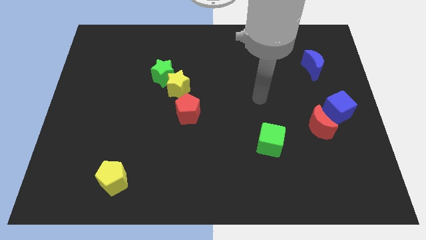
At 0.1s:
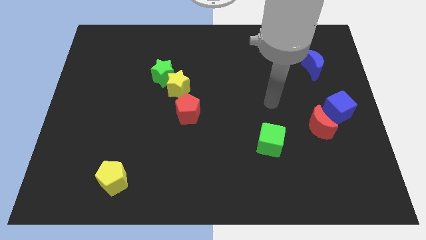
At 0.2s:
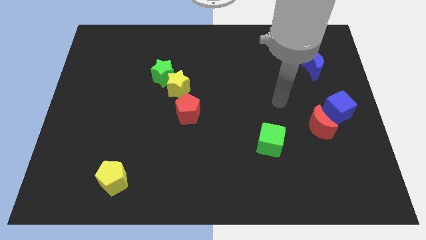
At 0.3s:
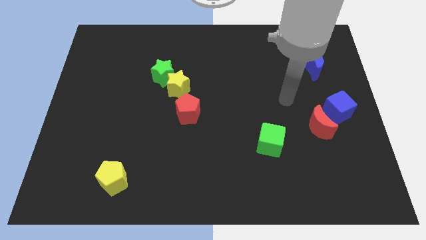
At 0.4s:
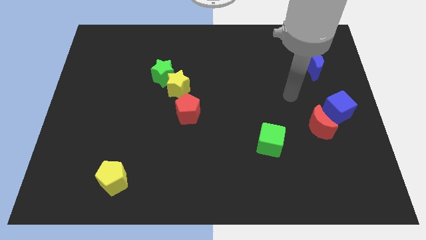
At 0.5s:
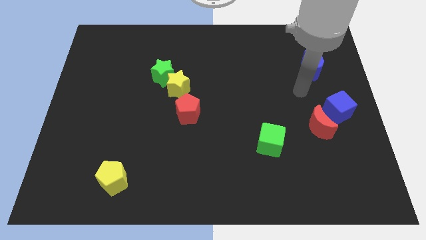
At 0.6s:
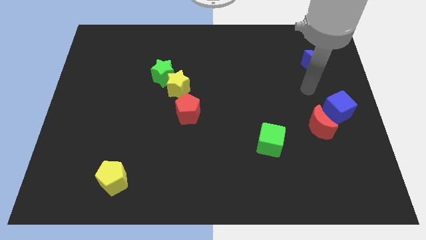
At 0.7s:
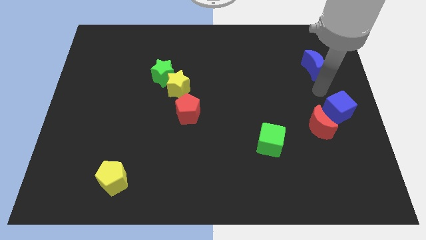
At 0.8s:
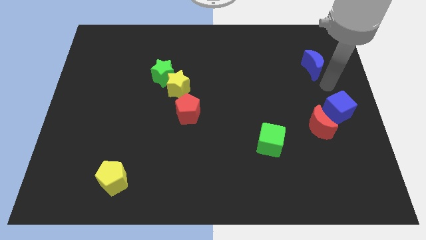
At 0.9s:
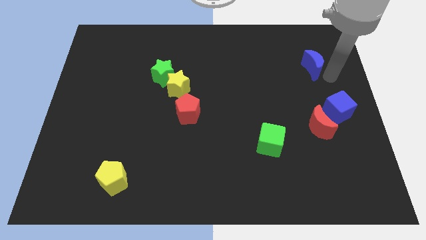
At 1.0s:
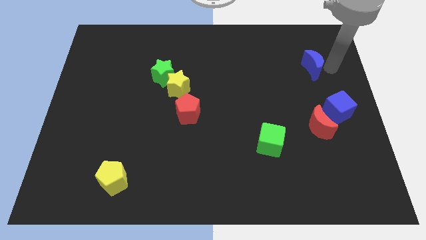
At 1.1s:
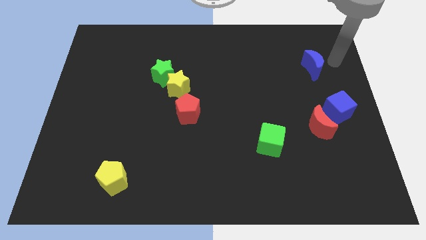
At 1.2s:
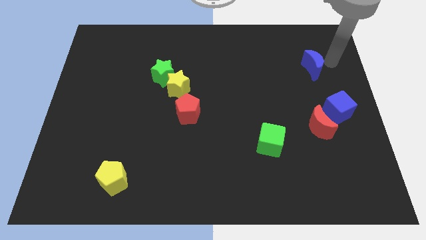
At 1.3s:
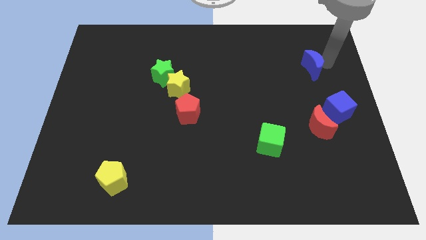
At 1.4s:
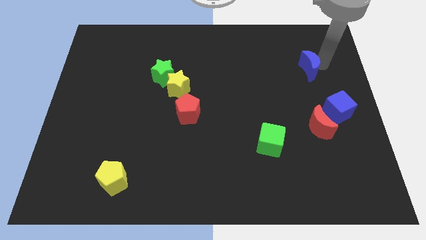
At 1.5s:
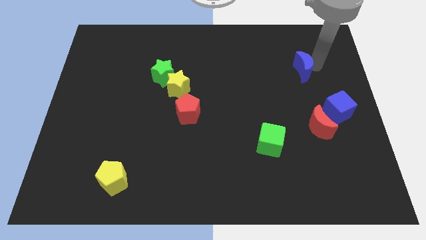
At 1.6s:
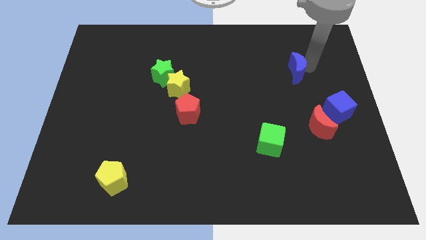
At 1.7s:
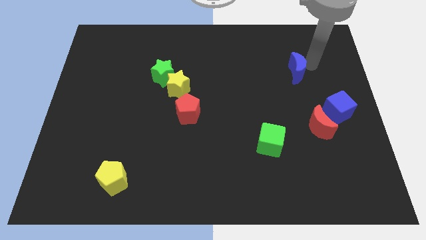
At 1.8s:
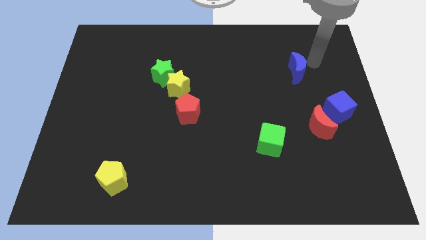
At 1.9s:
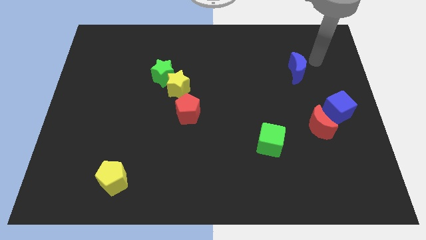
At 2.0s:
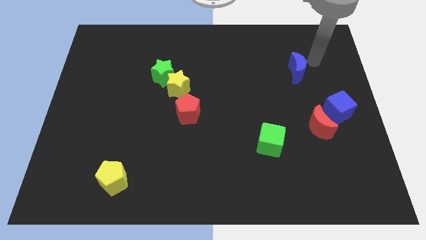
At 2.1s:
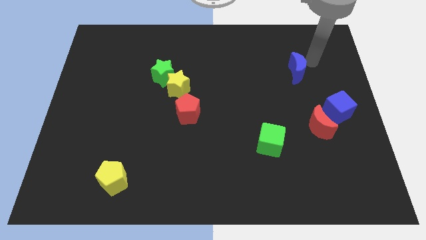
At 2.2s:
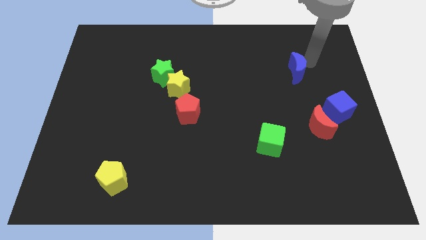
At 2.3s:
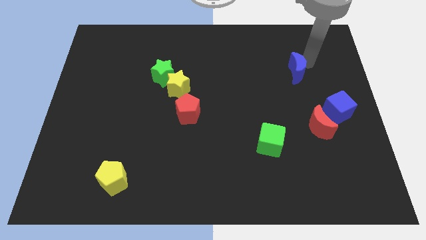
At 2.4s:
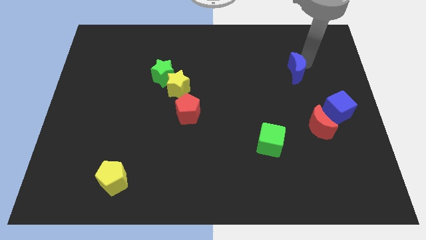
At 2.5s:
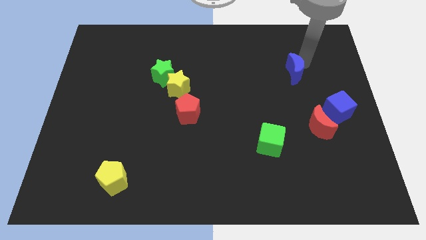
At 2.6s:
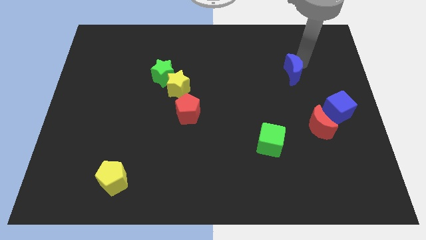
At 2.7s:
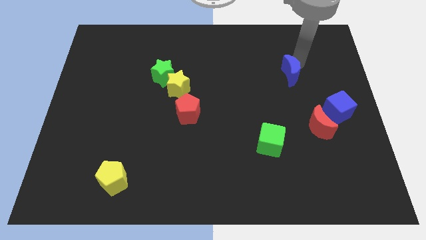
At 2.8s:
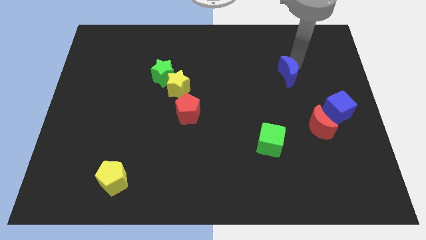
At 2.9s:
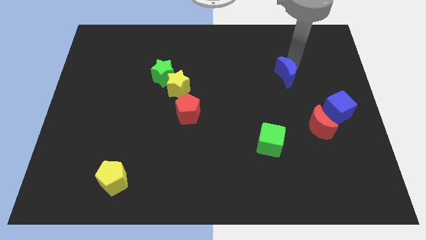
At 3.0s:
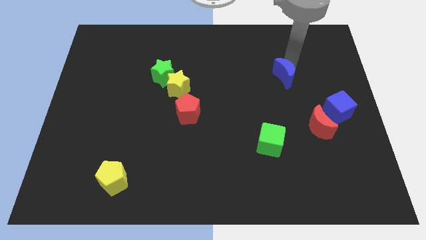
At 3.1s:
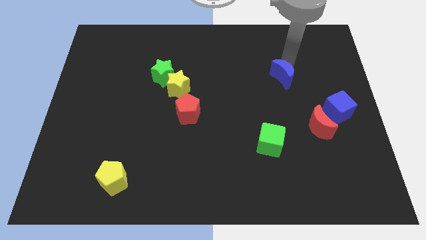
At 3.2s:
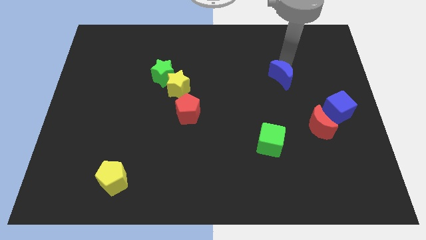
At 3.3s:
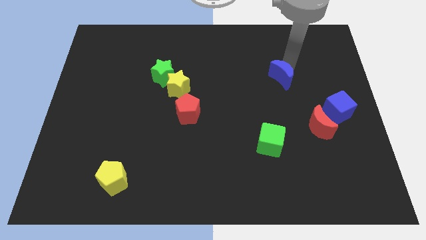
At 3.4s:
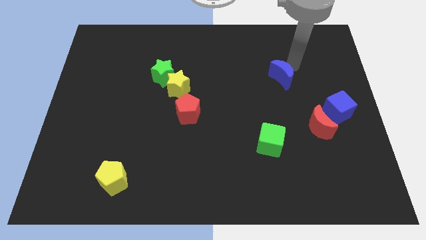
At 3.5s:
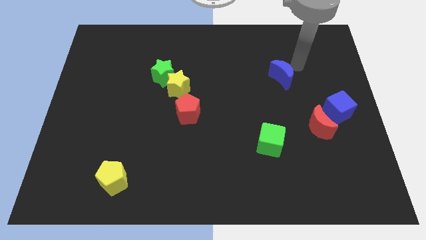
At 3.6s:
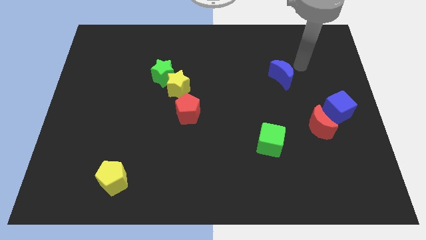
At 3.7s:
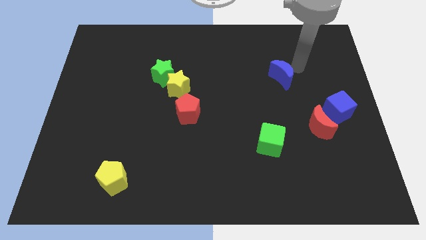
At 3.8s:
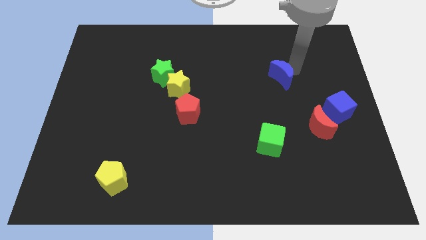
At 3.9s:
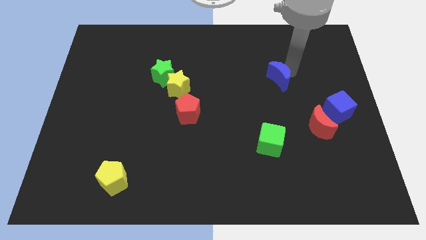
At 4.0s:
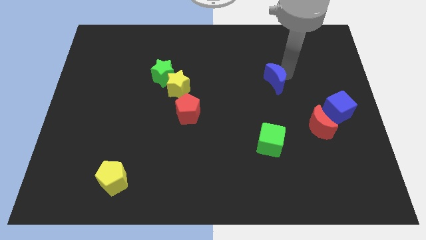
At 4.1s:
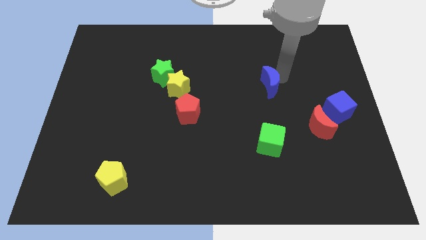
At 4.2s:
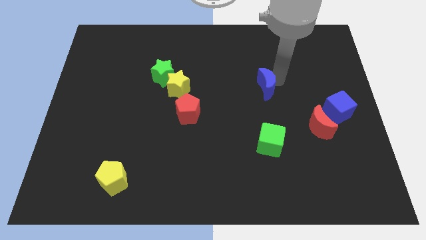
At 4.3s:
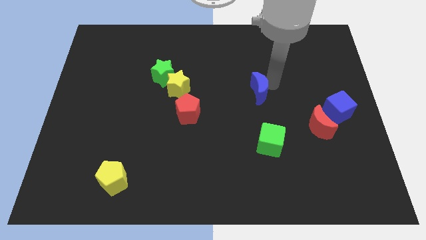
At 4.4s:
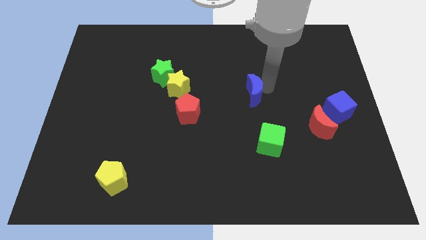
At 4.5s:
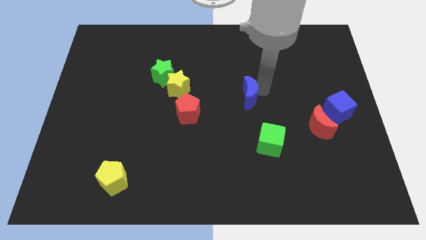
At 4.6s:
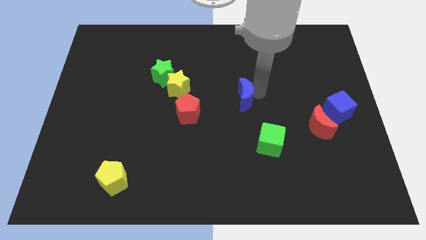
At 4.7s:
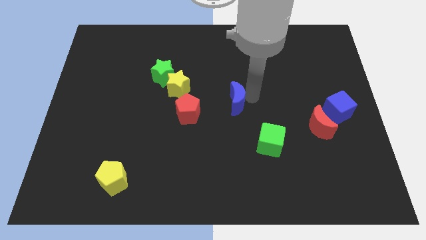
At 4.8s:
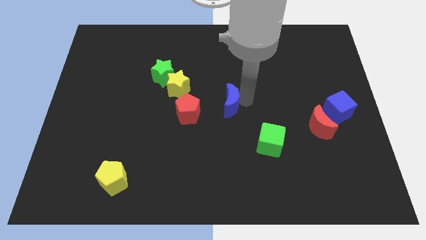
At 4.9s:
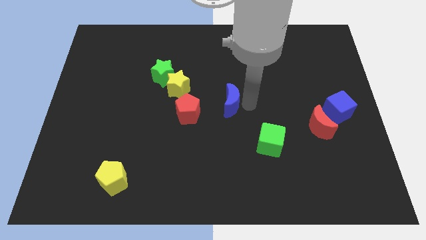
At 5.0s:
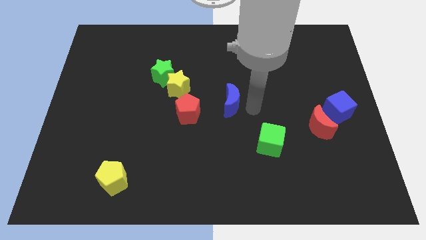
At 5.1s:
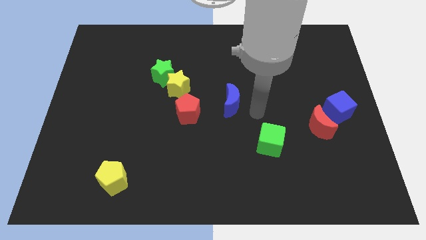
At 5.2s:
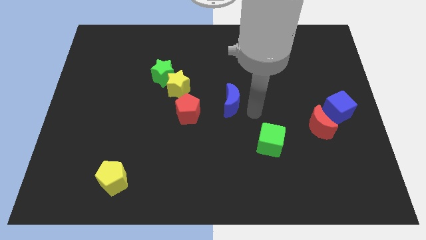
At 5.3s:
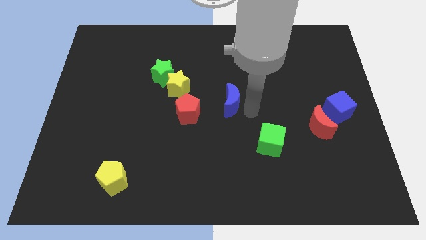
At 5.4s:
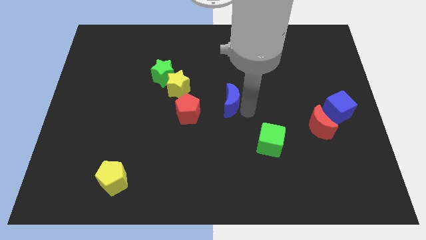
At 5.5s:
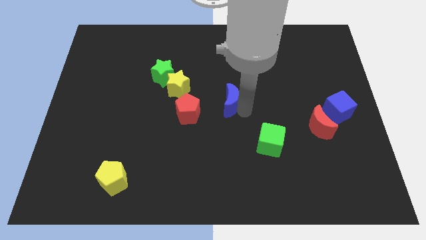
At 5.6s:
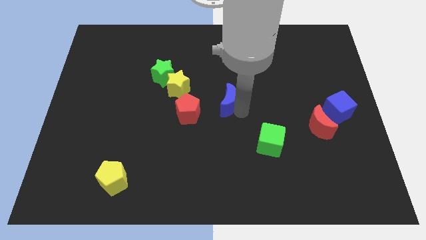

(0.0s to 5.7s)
push the blue moon to the top right of the red pentagon

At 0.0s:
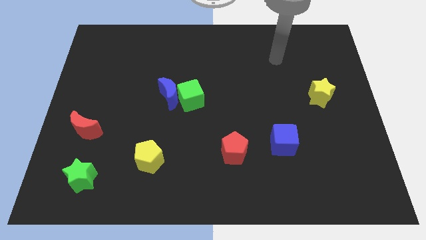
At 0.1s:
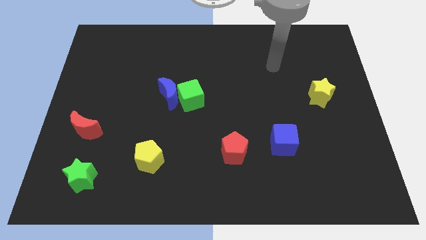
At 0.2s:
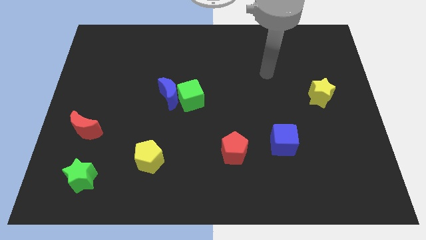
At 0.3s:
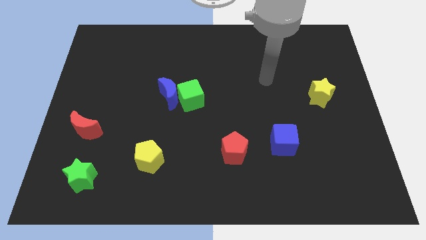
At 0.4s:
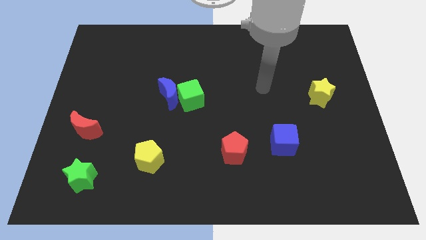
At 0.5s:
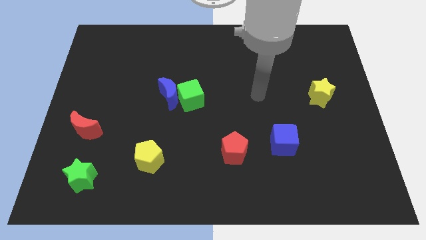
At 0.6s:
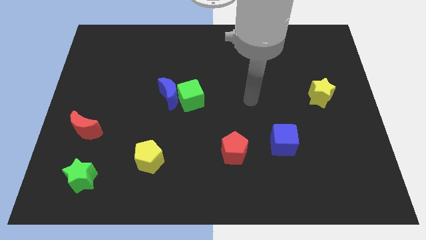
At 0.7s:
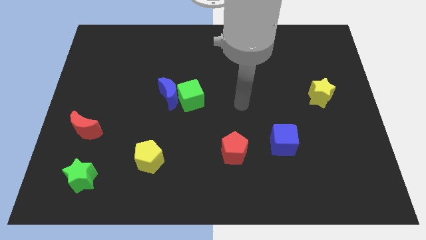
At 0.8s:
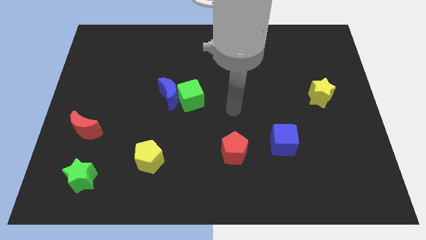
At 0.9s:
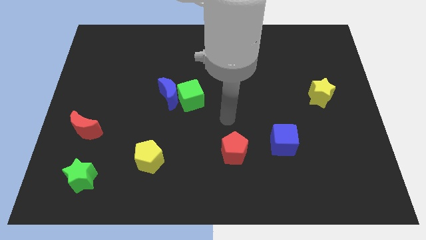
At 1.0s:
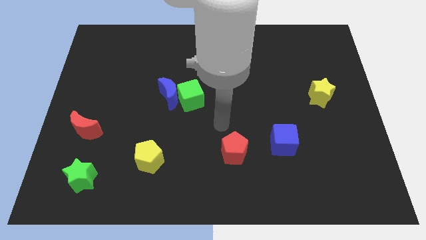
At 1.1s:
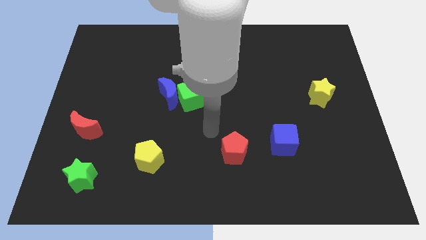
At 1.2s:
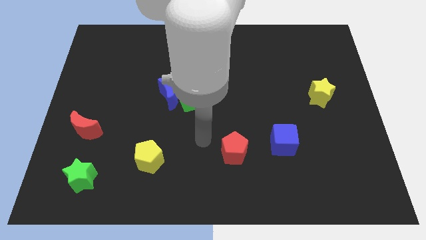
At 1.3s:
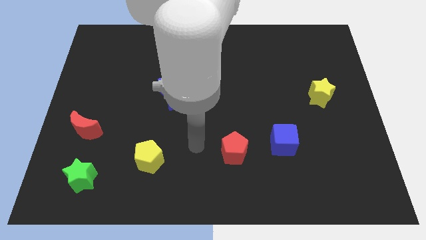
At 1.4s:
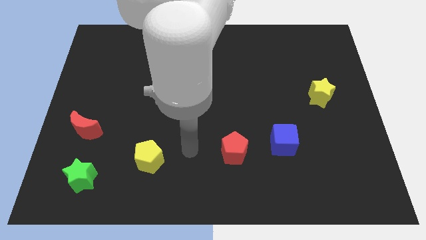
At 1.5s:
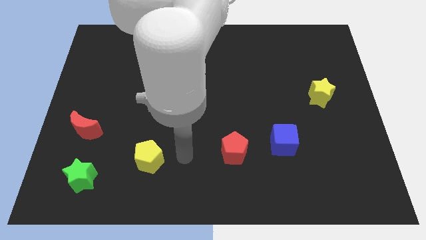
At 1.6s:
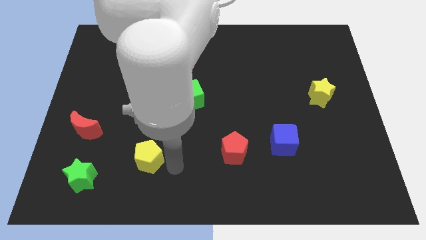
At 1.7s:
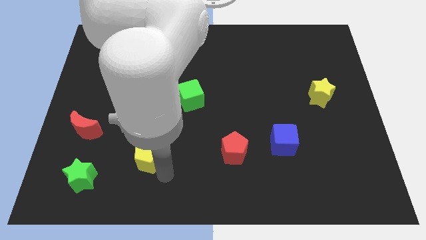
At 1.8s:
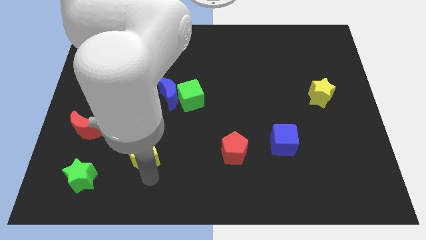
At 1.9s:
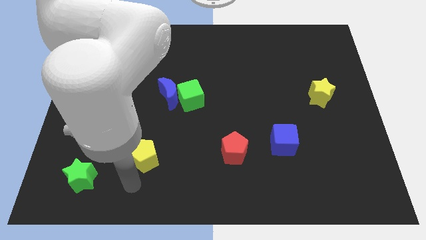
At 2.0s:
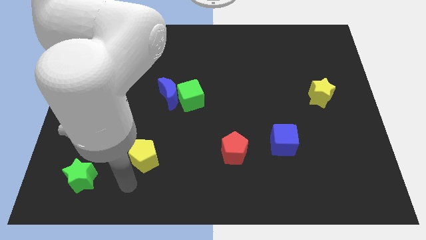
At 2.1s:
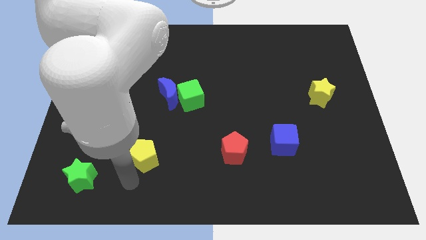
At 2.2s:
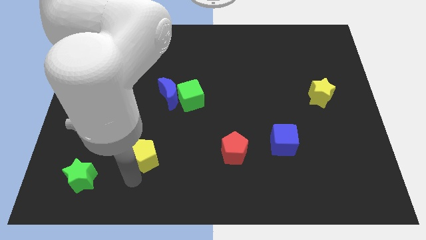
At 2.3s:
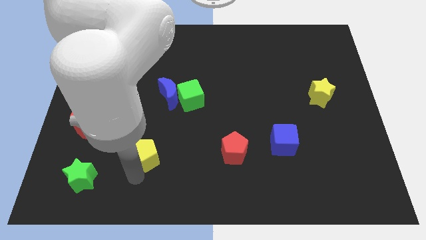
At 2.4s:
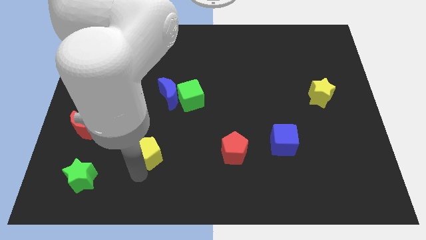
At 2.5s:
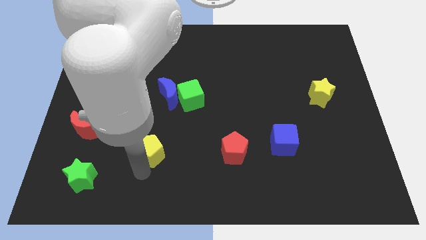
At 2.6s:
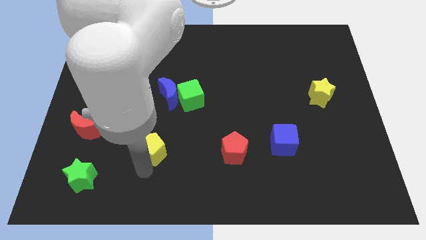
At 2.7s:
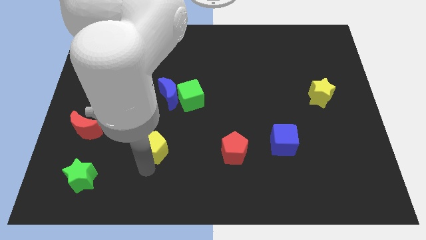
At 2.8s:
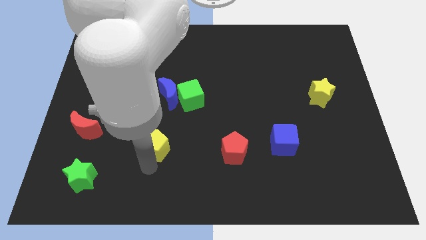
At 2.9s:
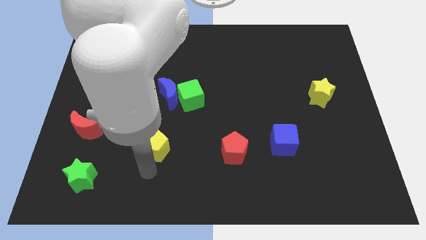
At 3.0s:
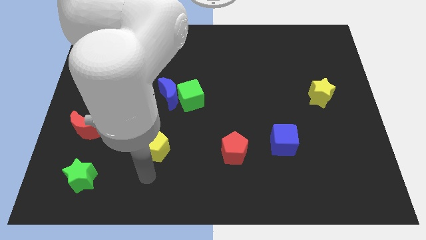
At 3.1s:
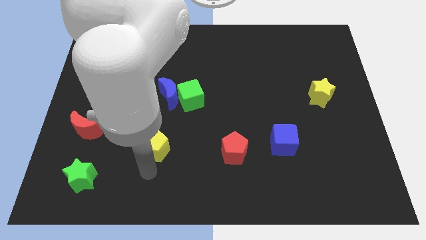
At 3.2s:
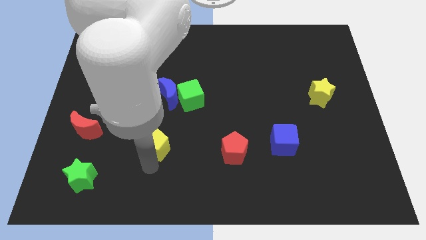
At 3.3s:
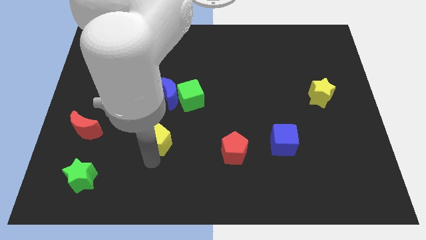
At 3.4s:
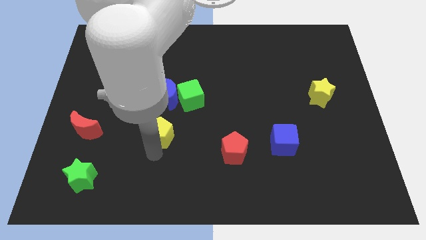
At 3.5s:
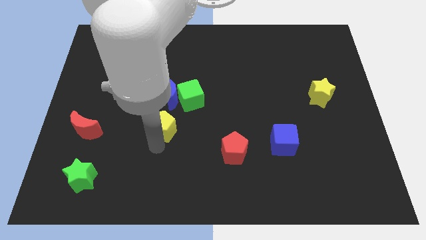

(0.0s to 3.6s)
put the yellow pentagon diagonally down and to the left of the green cube
